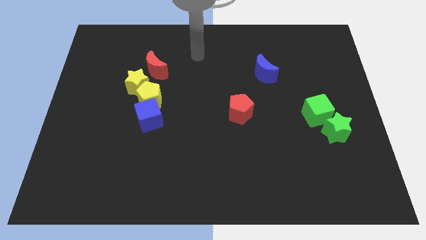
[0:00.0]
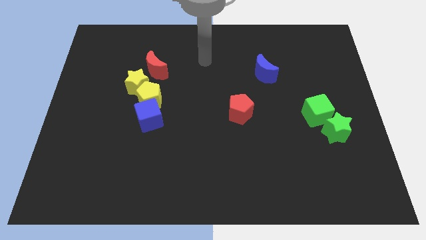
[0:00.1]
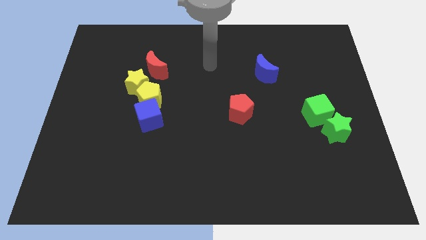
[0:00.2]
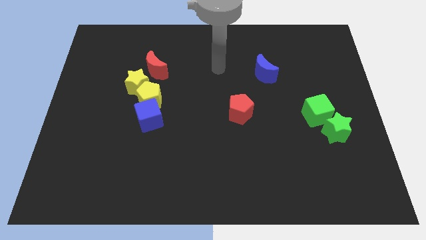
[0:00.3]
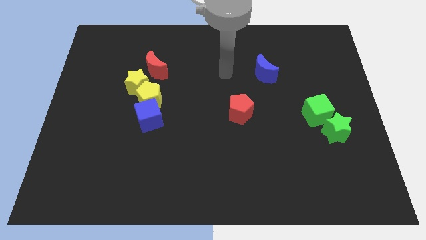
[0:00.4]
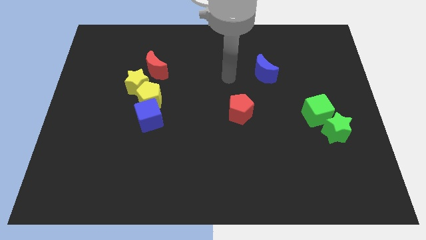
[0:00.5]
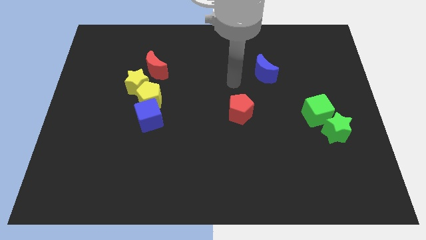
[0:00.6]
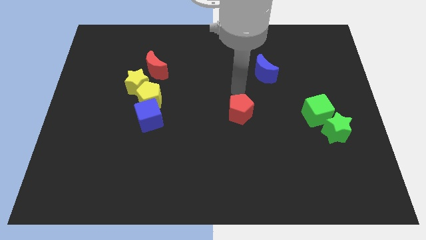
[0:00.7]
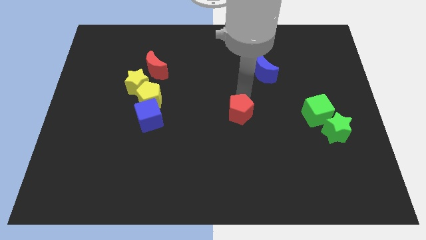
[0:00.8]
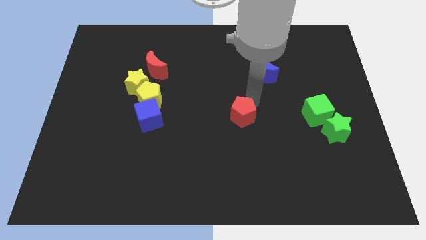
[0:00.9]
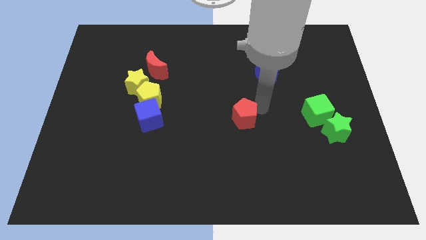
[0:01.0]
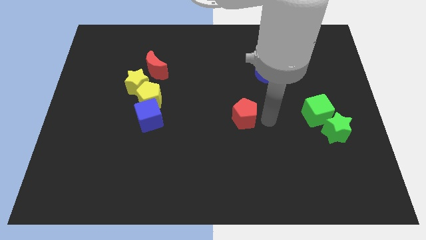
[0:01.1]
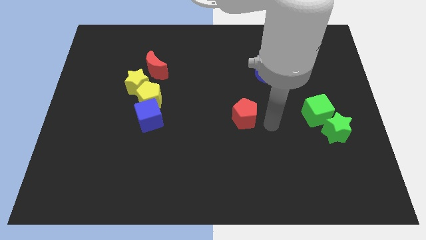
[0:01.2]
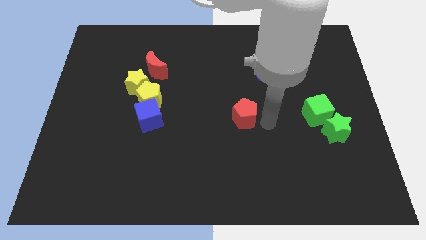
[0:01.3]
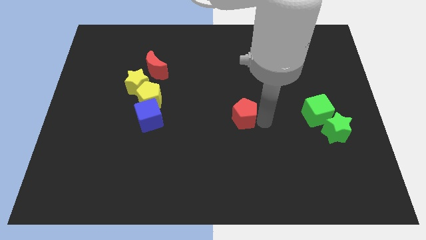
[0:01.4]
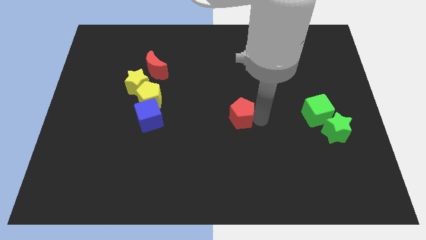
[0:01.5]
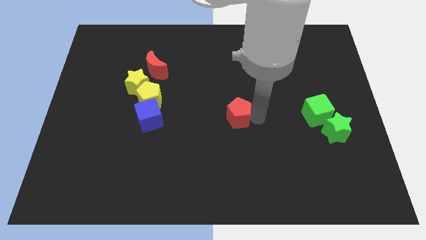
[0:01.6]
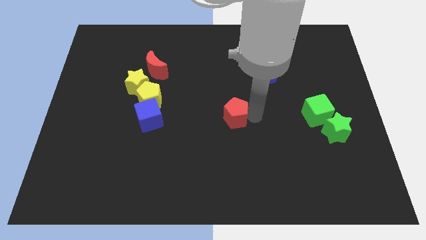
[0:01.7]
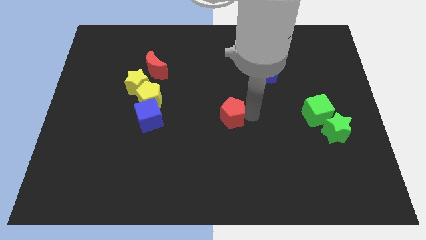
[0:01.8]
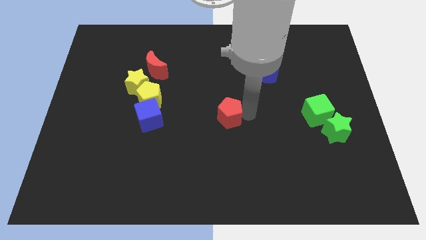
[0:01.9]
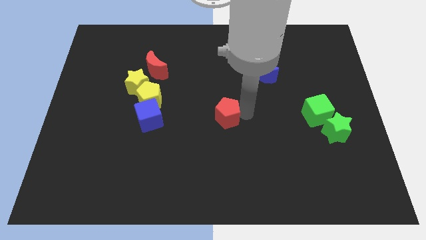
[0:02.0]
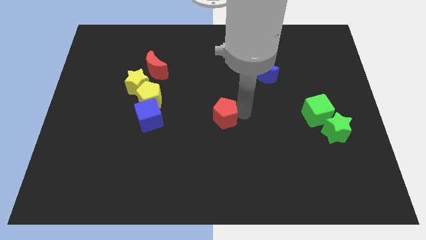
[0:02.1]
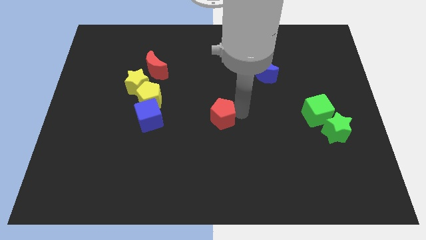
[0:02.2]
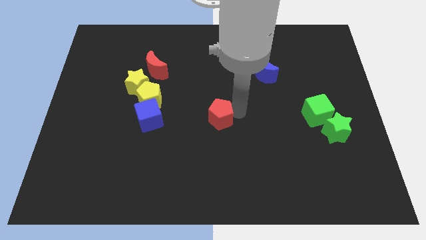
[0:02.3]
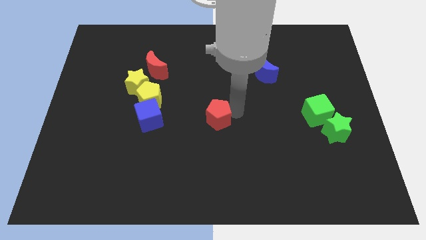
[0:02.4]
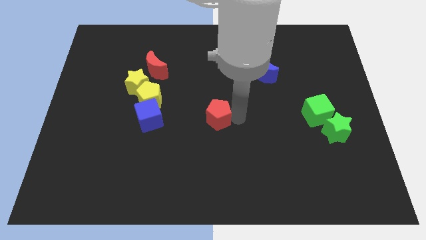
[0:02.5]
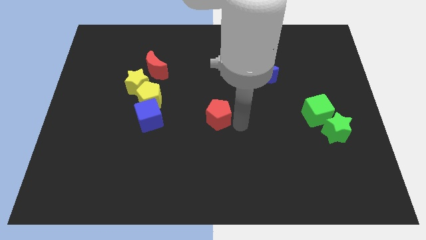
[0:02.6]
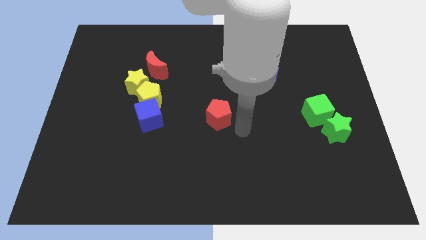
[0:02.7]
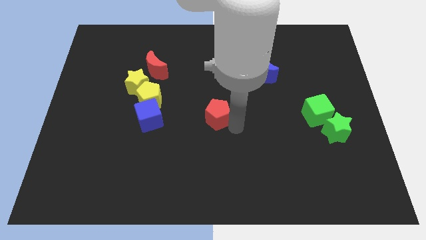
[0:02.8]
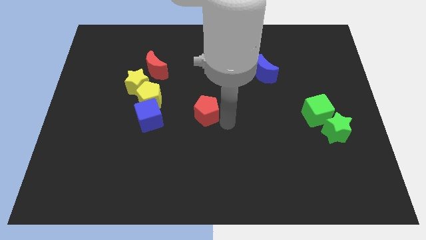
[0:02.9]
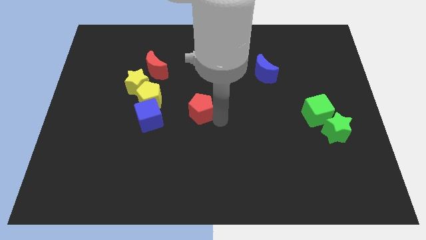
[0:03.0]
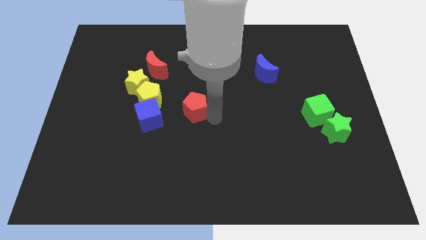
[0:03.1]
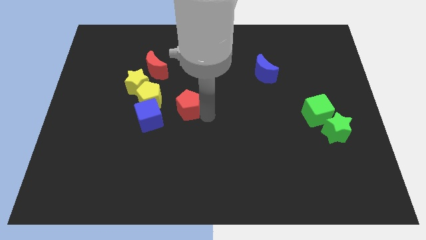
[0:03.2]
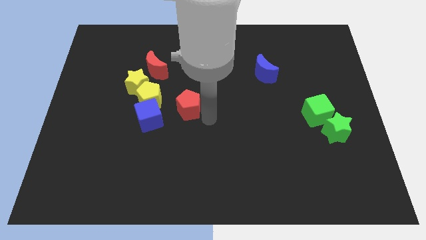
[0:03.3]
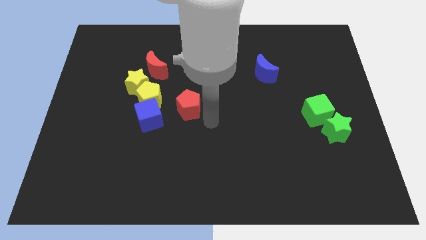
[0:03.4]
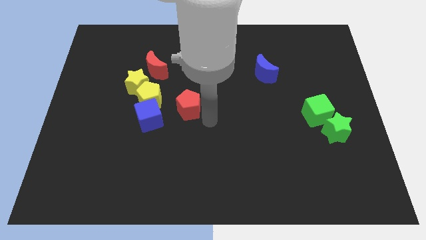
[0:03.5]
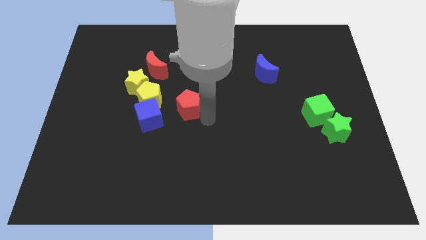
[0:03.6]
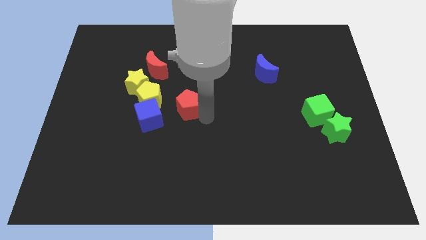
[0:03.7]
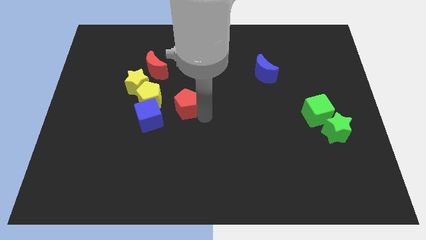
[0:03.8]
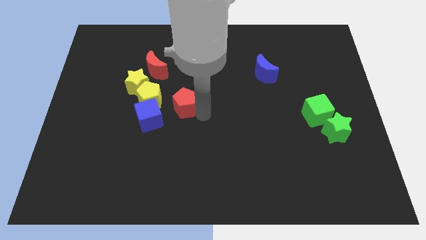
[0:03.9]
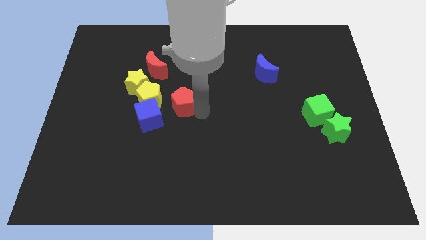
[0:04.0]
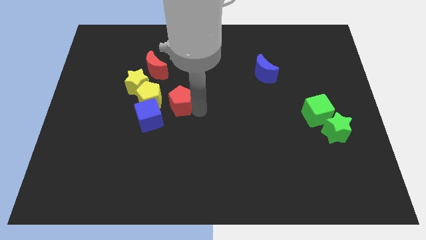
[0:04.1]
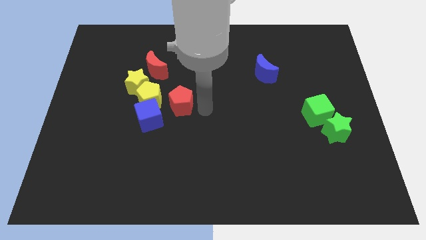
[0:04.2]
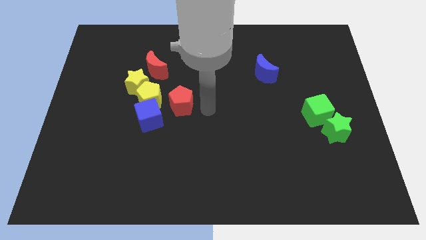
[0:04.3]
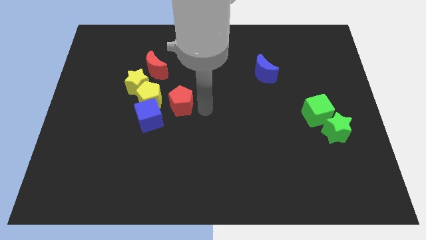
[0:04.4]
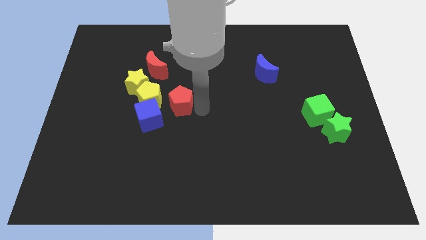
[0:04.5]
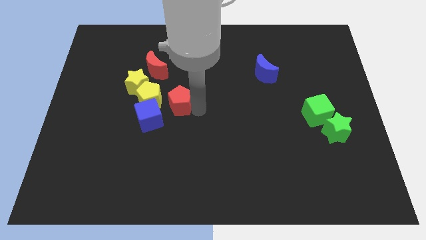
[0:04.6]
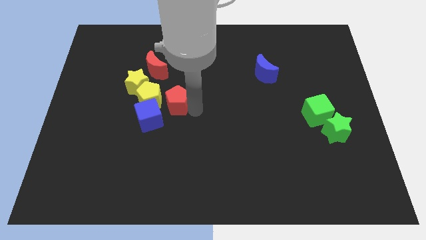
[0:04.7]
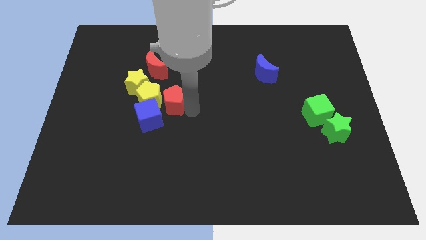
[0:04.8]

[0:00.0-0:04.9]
move the red pentagon towards the yellow pentagon

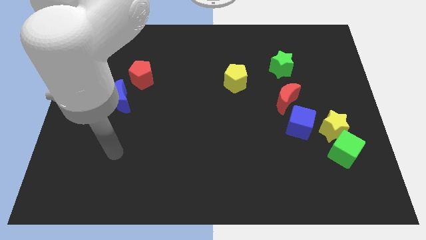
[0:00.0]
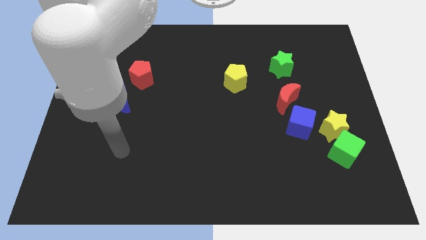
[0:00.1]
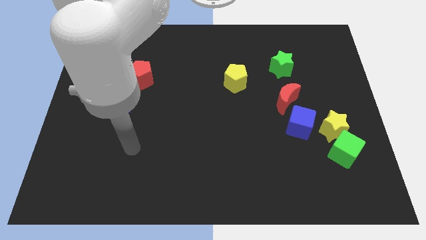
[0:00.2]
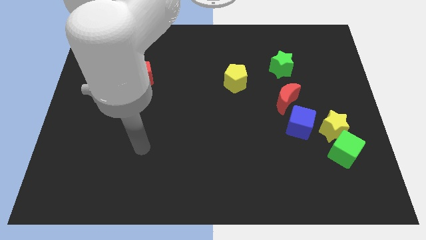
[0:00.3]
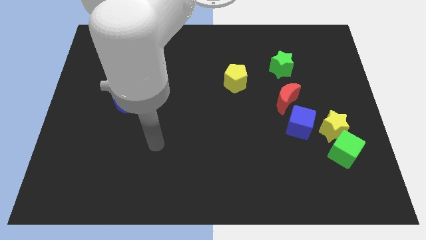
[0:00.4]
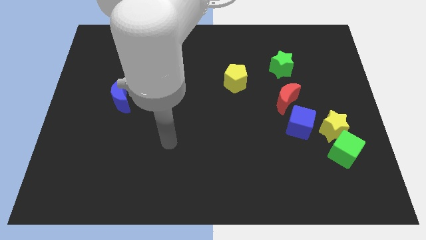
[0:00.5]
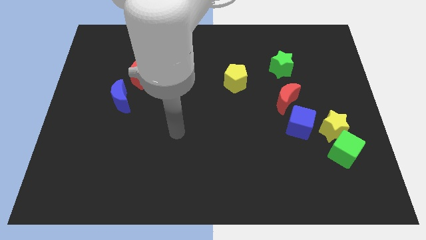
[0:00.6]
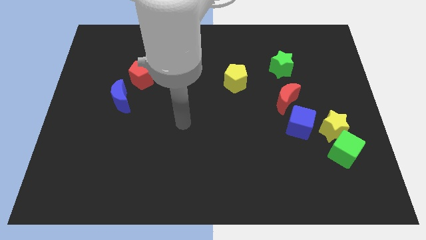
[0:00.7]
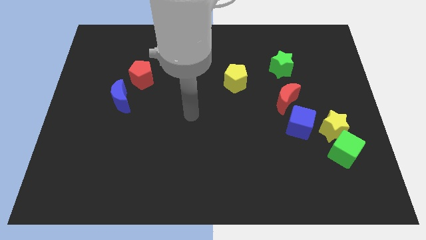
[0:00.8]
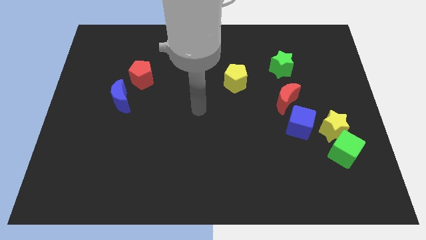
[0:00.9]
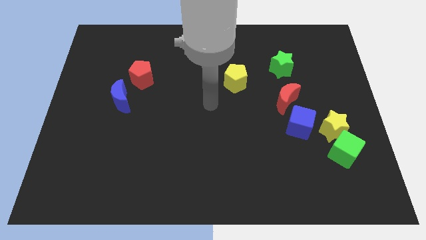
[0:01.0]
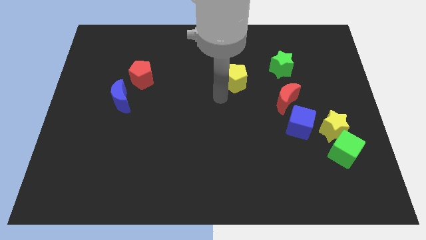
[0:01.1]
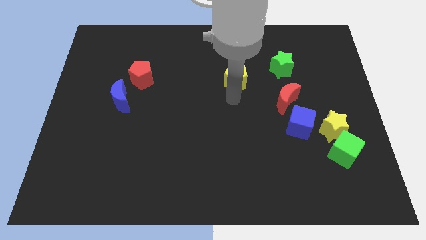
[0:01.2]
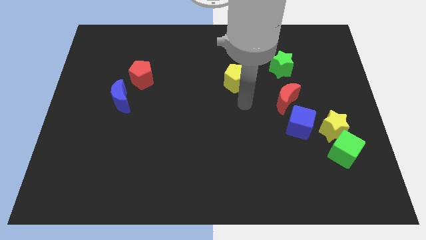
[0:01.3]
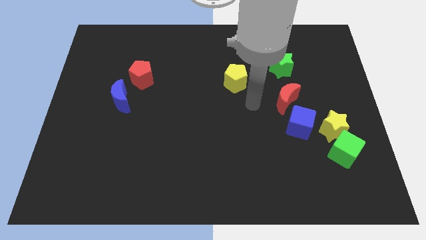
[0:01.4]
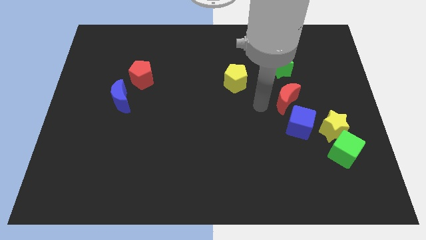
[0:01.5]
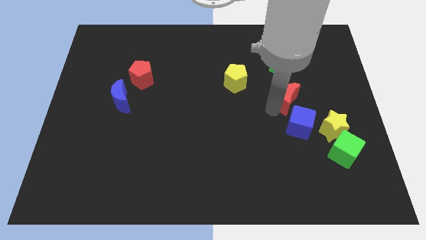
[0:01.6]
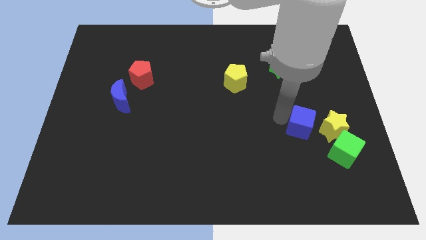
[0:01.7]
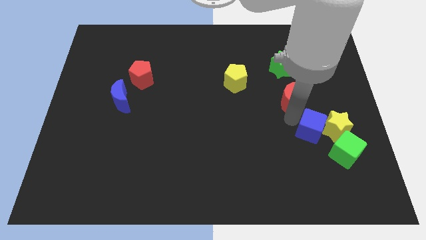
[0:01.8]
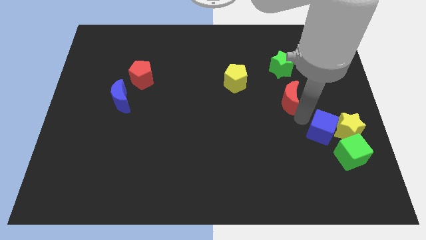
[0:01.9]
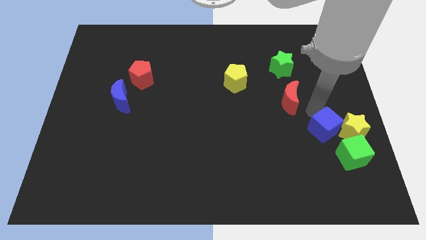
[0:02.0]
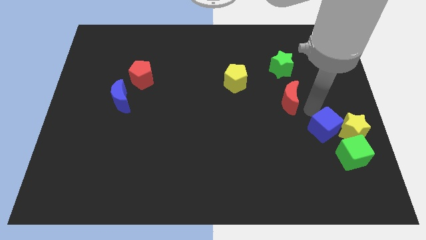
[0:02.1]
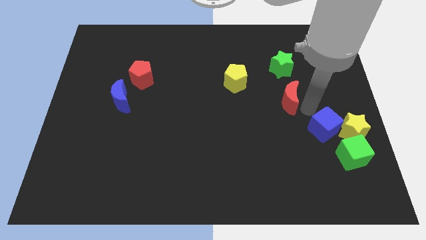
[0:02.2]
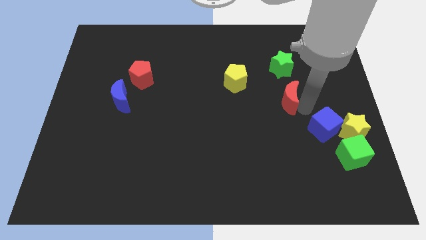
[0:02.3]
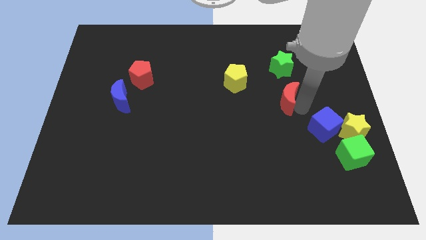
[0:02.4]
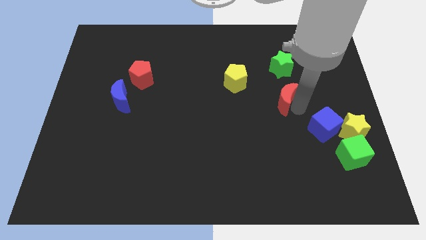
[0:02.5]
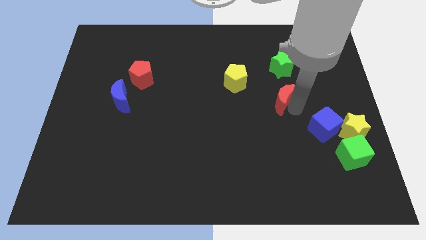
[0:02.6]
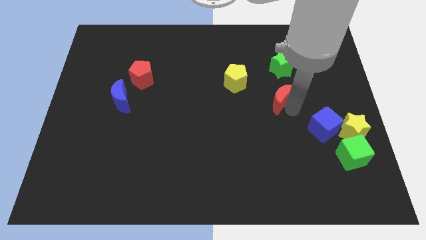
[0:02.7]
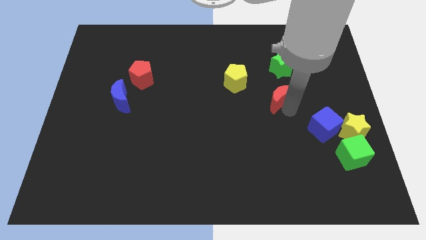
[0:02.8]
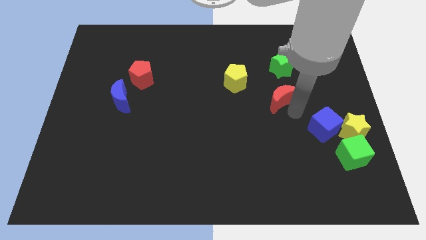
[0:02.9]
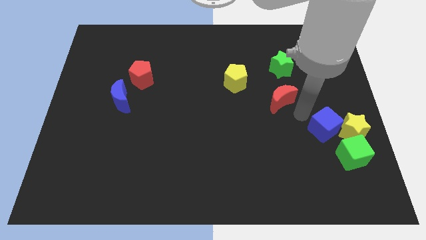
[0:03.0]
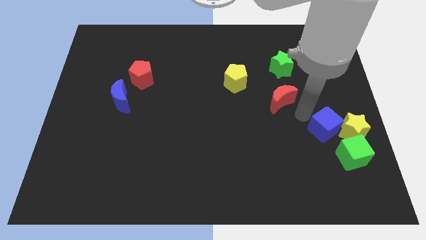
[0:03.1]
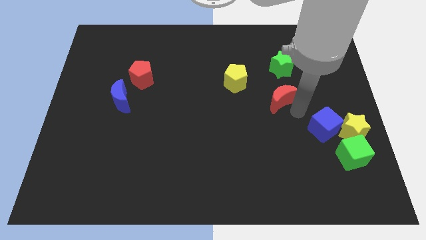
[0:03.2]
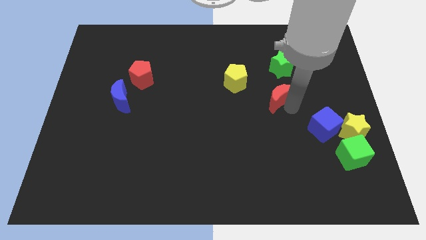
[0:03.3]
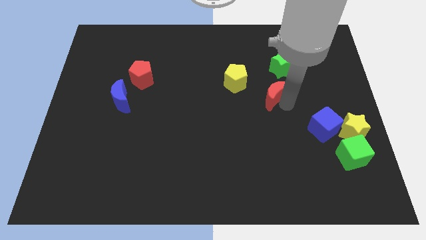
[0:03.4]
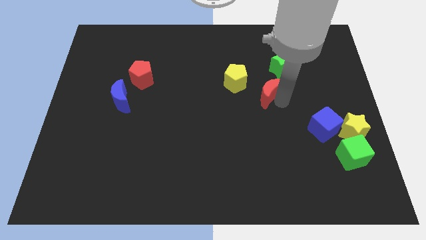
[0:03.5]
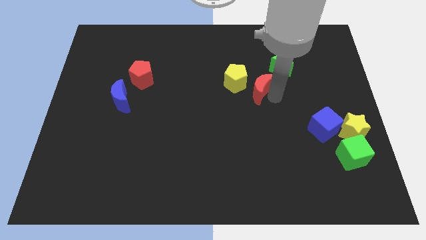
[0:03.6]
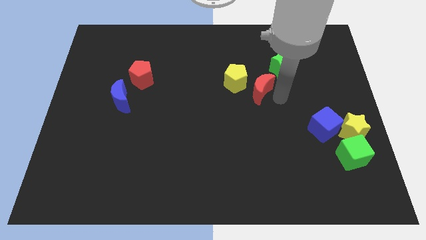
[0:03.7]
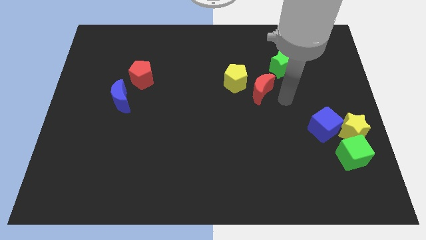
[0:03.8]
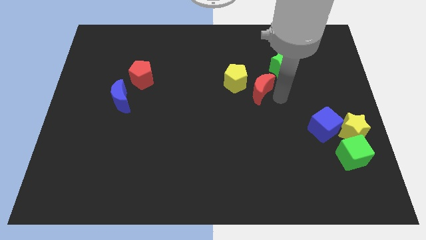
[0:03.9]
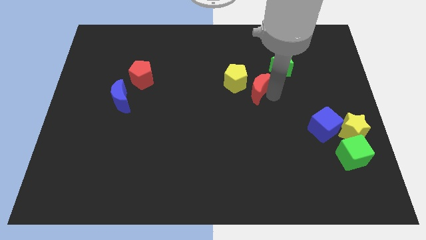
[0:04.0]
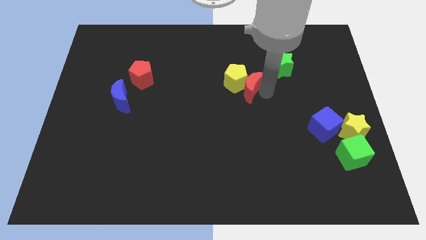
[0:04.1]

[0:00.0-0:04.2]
move the red moon close to the yellow pentagon
